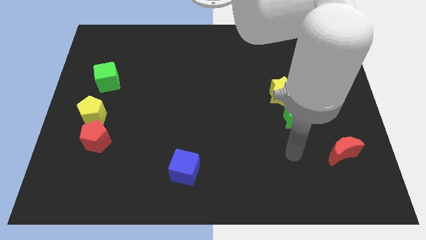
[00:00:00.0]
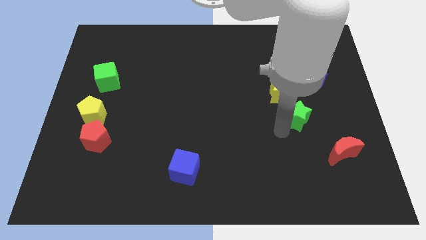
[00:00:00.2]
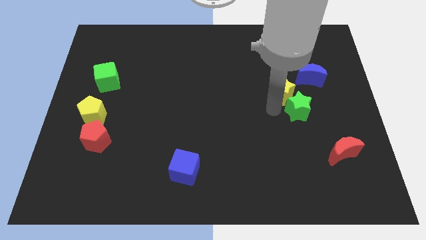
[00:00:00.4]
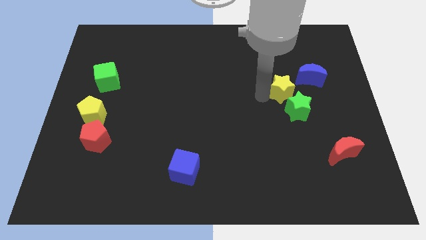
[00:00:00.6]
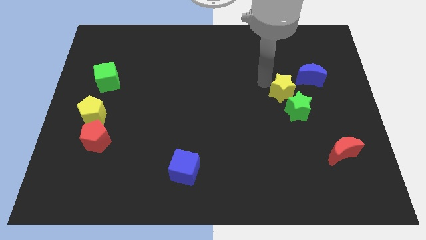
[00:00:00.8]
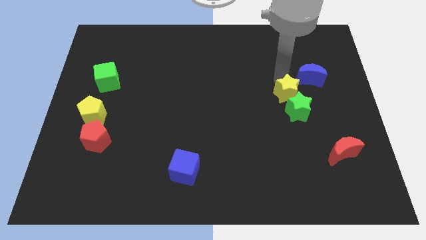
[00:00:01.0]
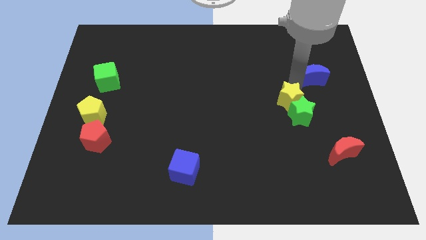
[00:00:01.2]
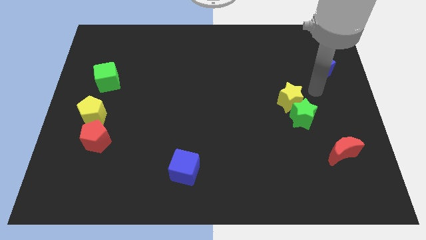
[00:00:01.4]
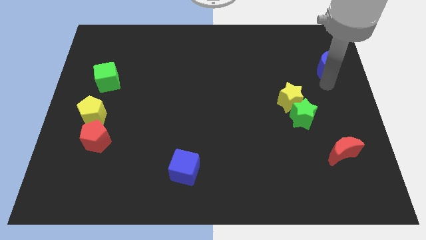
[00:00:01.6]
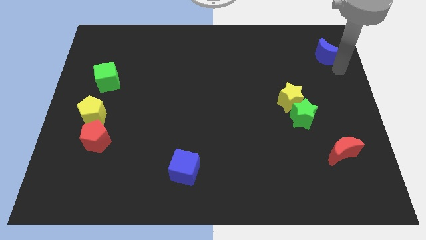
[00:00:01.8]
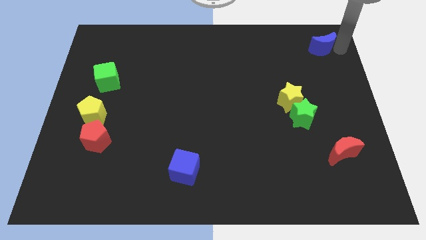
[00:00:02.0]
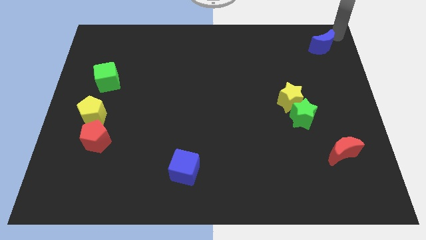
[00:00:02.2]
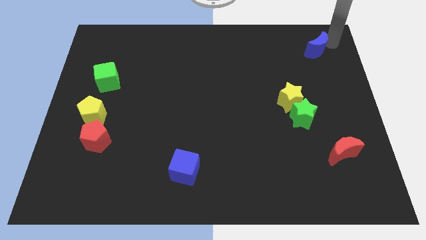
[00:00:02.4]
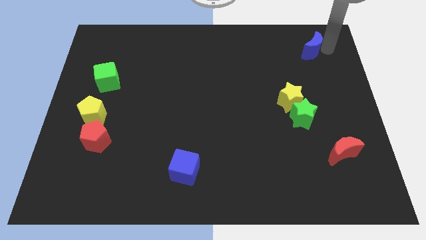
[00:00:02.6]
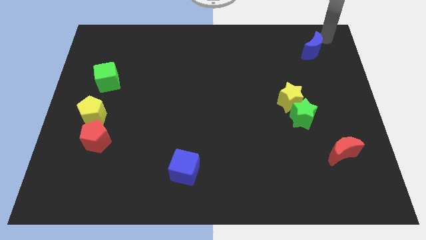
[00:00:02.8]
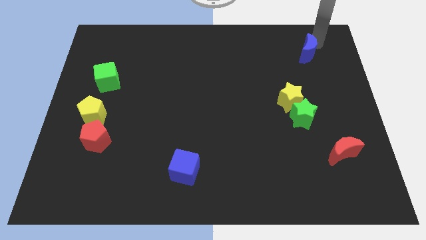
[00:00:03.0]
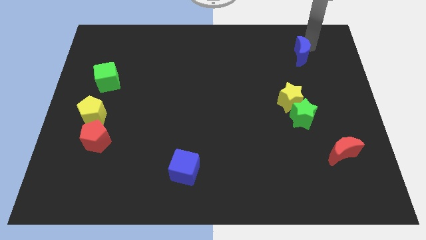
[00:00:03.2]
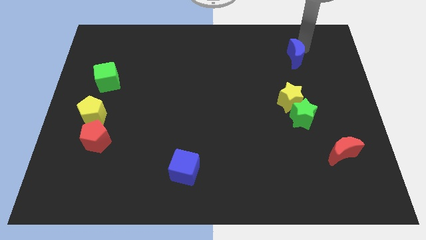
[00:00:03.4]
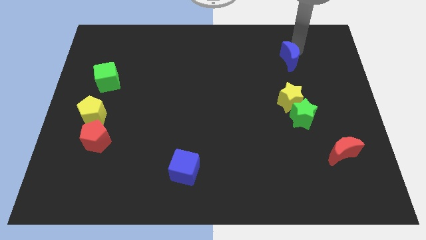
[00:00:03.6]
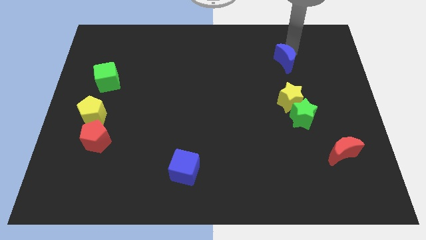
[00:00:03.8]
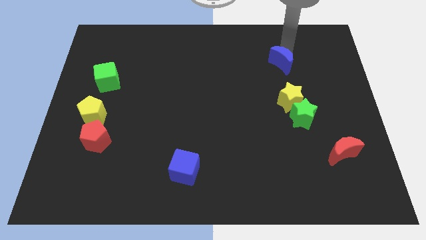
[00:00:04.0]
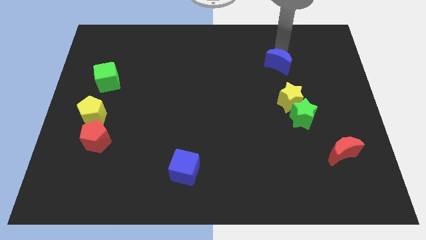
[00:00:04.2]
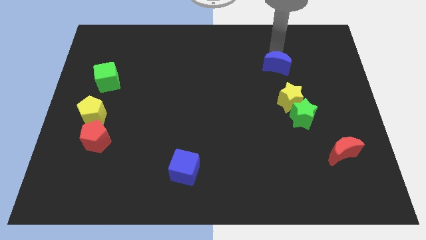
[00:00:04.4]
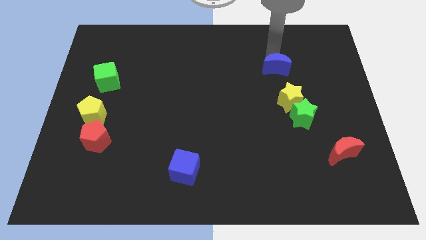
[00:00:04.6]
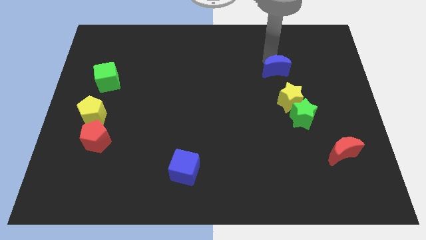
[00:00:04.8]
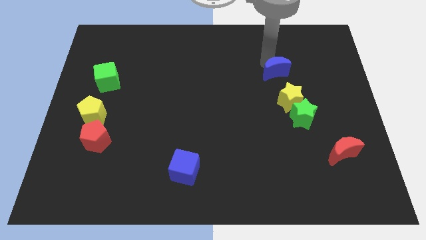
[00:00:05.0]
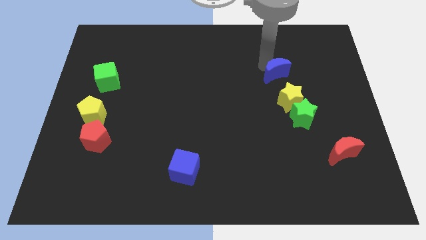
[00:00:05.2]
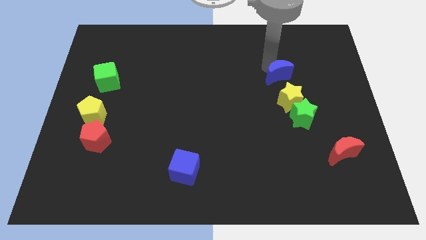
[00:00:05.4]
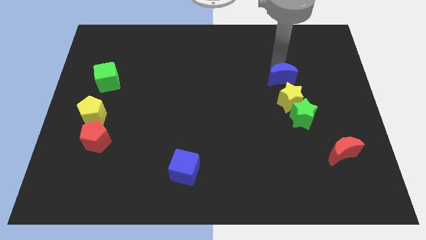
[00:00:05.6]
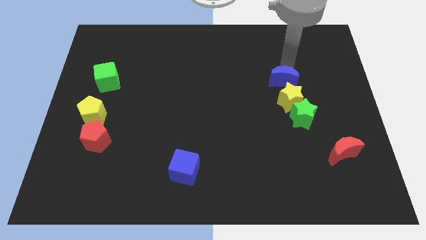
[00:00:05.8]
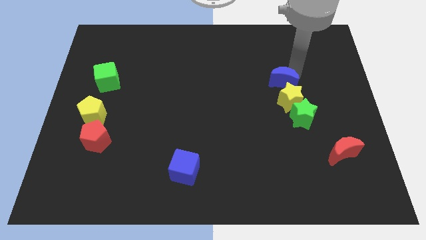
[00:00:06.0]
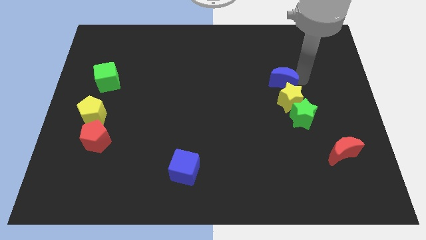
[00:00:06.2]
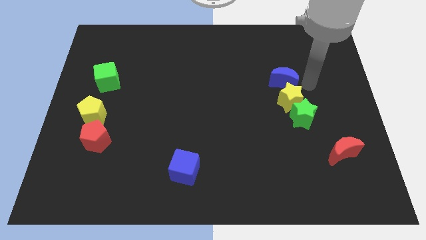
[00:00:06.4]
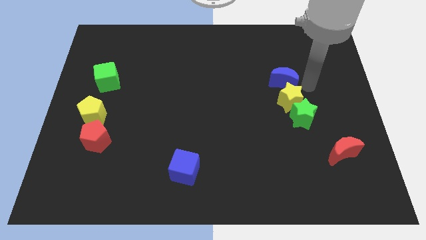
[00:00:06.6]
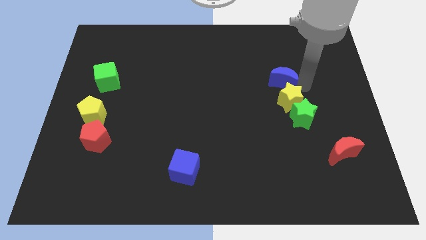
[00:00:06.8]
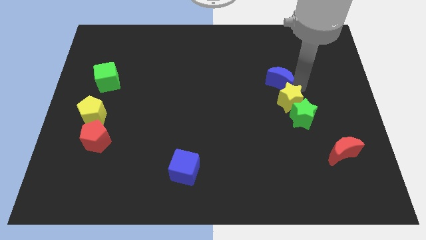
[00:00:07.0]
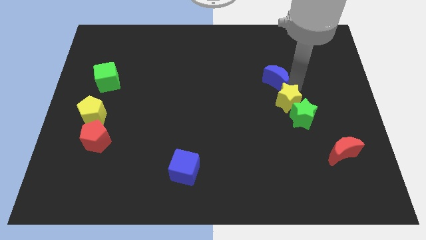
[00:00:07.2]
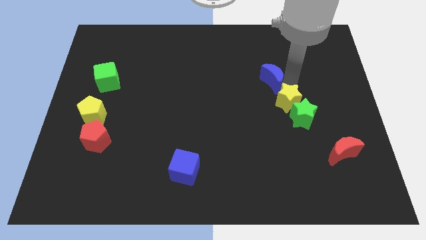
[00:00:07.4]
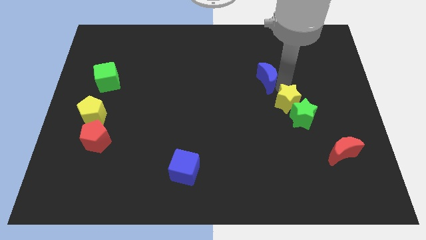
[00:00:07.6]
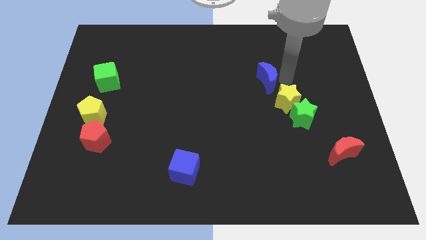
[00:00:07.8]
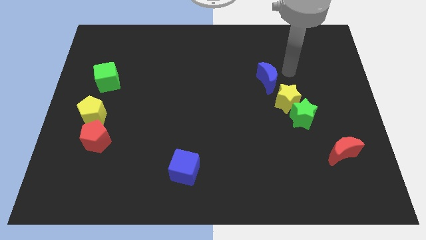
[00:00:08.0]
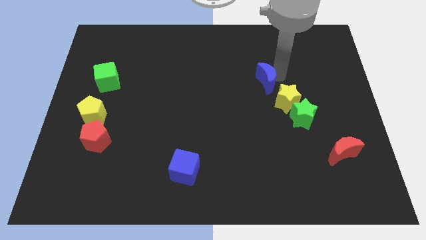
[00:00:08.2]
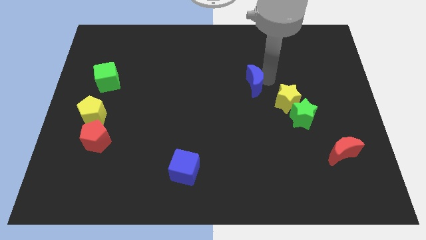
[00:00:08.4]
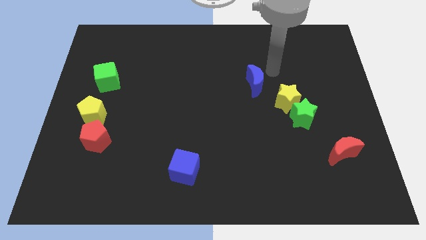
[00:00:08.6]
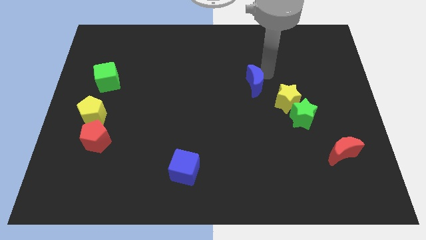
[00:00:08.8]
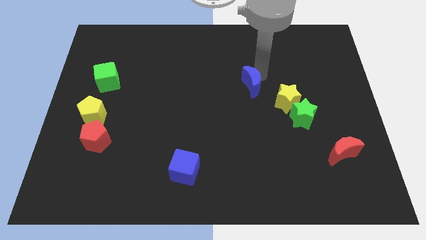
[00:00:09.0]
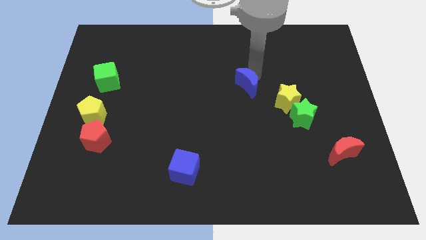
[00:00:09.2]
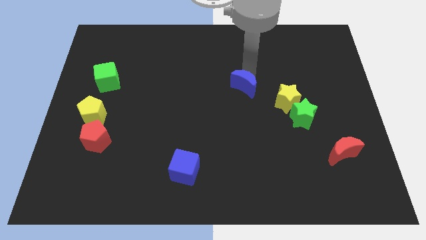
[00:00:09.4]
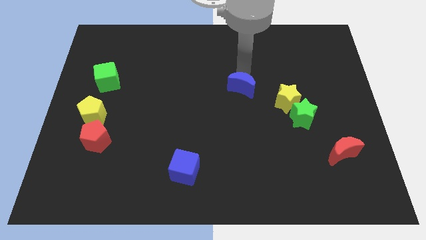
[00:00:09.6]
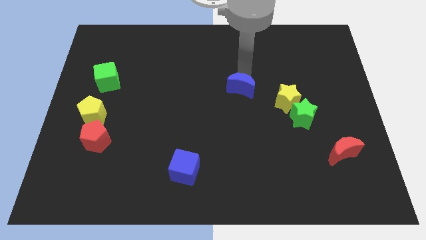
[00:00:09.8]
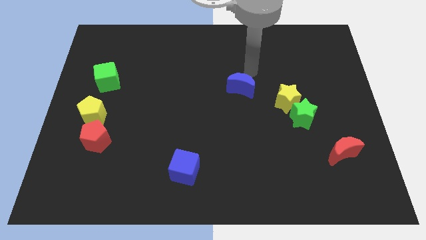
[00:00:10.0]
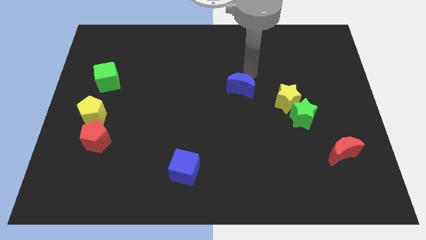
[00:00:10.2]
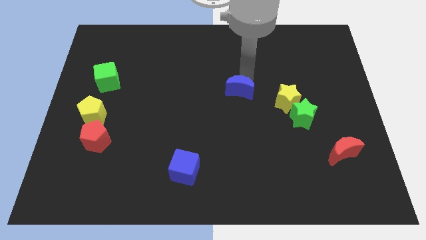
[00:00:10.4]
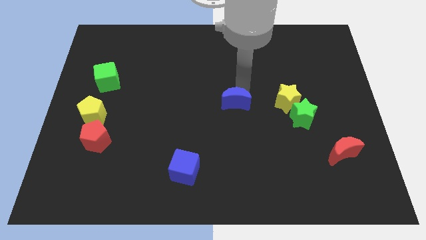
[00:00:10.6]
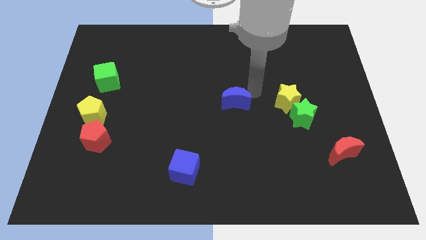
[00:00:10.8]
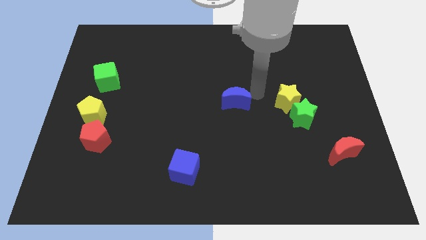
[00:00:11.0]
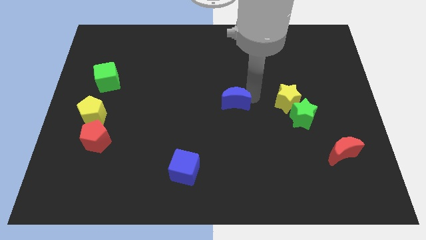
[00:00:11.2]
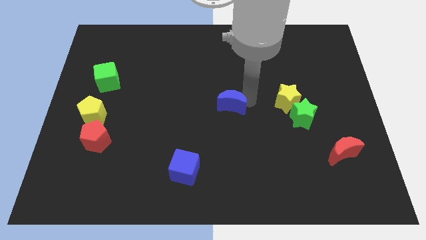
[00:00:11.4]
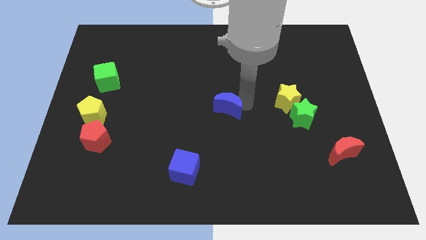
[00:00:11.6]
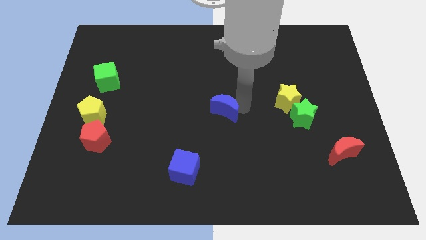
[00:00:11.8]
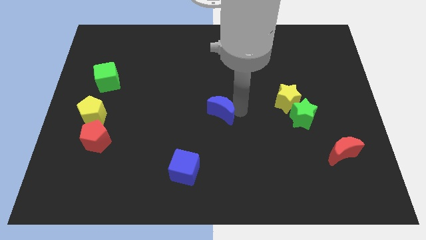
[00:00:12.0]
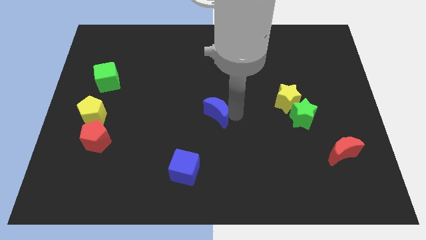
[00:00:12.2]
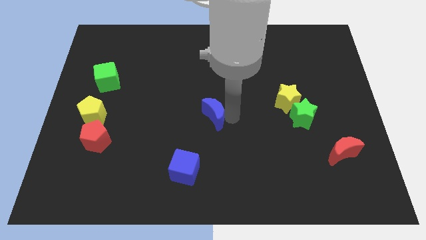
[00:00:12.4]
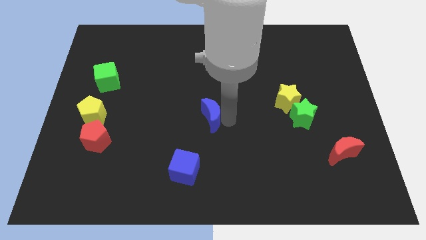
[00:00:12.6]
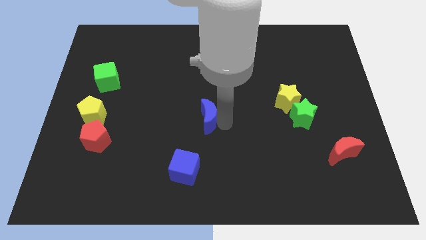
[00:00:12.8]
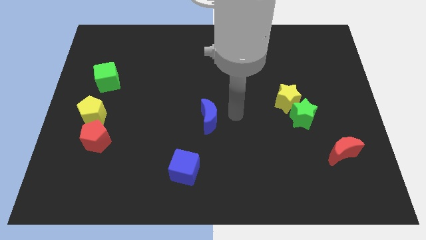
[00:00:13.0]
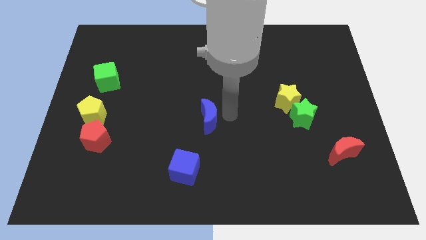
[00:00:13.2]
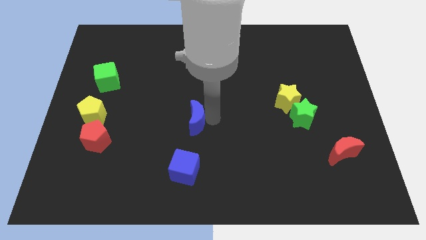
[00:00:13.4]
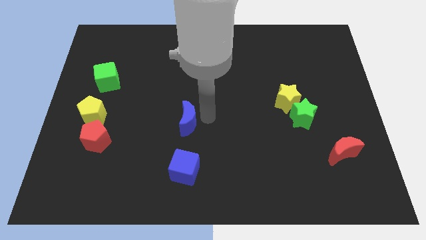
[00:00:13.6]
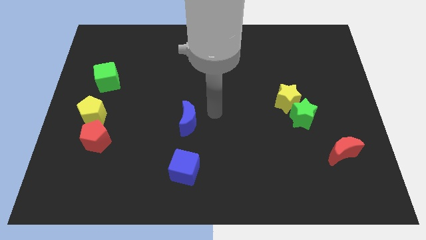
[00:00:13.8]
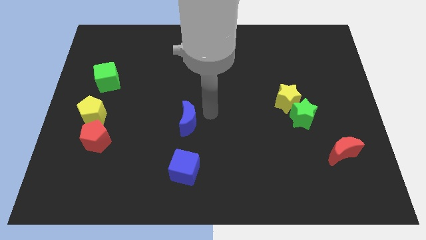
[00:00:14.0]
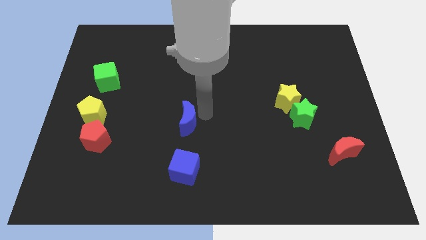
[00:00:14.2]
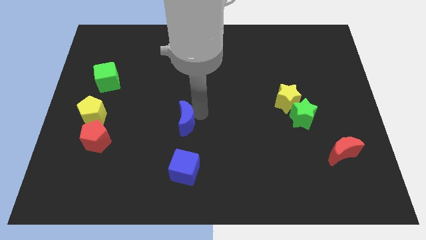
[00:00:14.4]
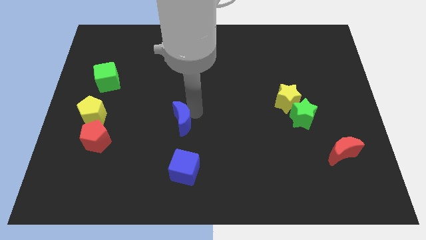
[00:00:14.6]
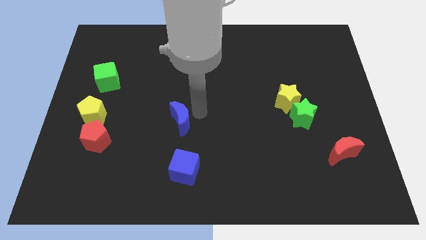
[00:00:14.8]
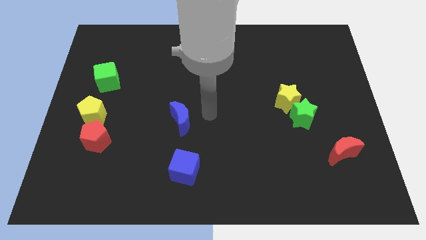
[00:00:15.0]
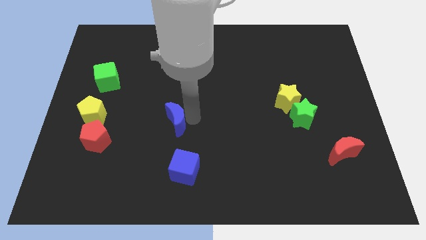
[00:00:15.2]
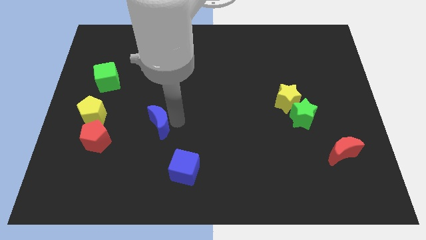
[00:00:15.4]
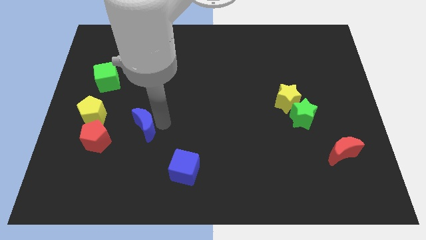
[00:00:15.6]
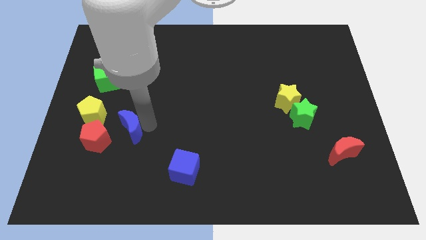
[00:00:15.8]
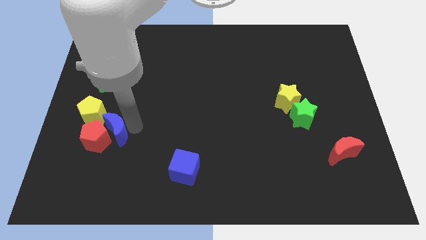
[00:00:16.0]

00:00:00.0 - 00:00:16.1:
push the blue moon towards the red pentagon
